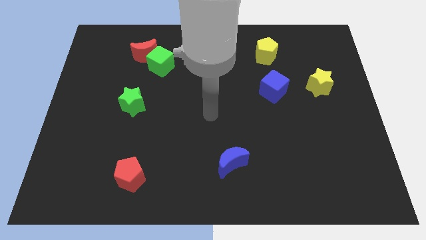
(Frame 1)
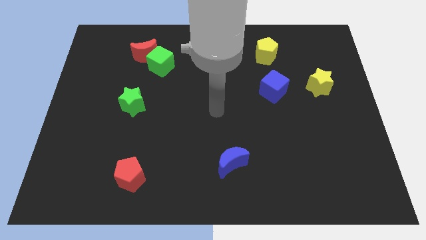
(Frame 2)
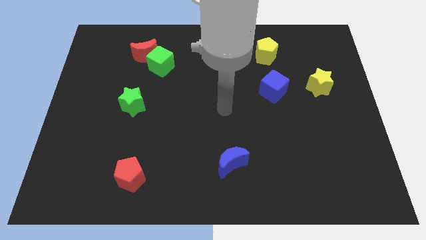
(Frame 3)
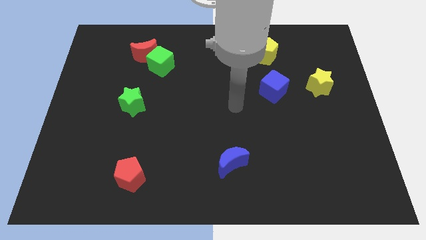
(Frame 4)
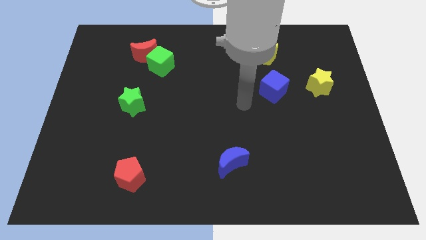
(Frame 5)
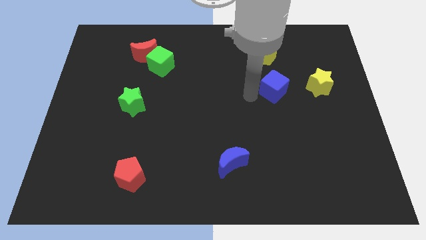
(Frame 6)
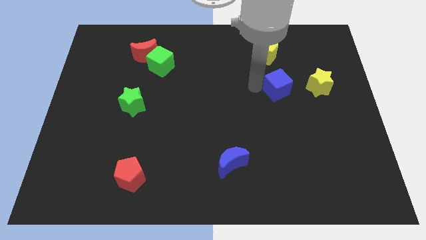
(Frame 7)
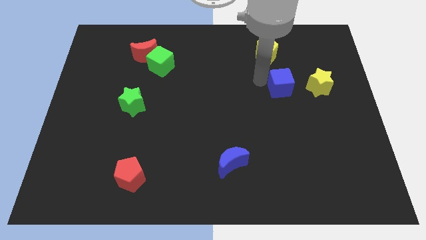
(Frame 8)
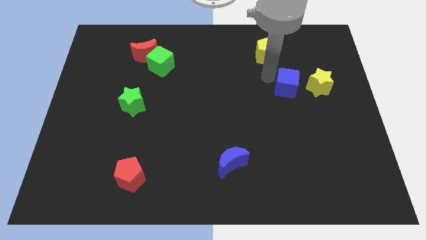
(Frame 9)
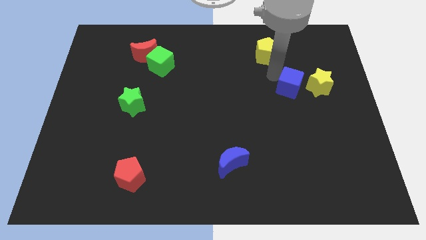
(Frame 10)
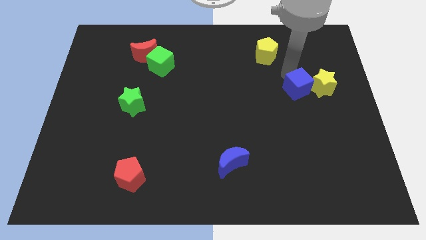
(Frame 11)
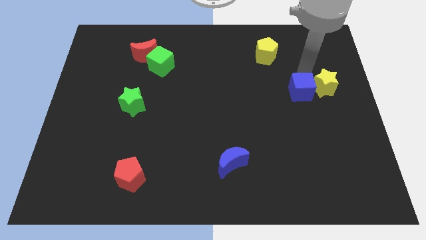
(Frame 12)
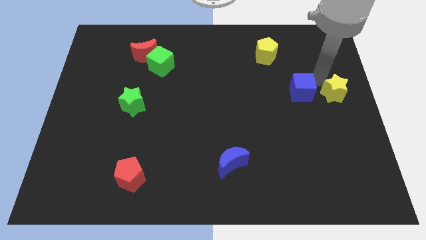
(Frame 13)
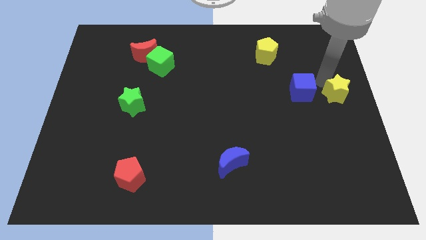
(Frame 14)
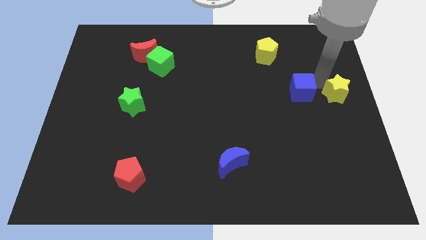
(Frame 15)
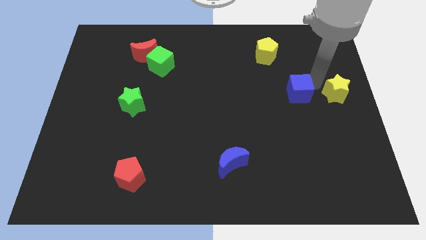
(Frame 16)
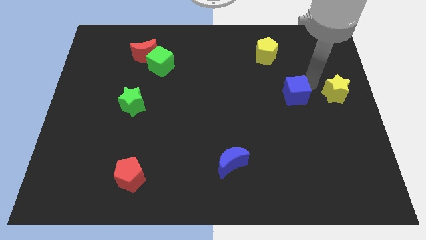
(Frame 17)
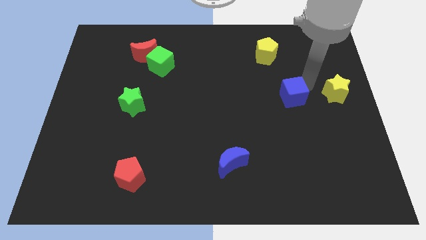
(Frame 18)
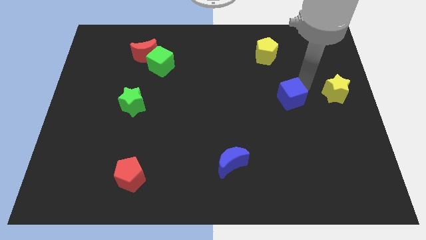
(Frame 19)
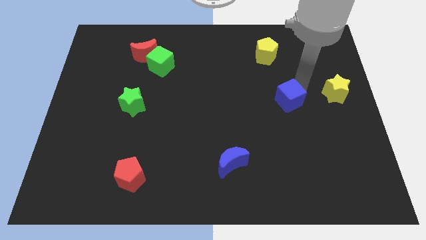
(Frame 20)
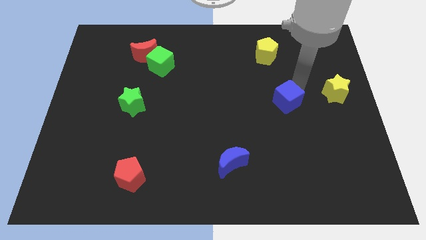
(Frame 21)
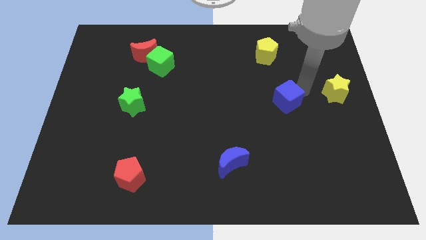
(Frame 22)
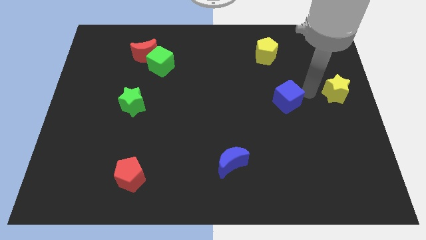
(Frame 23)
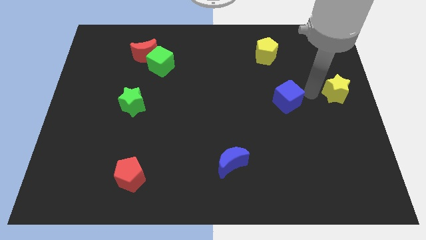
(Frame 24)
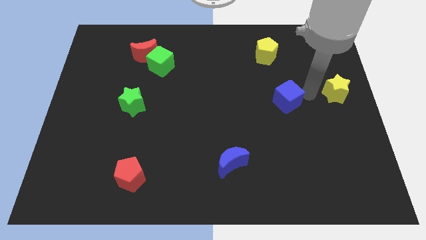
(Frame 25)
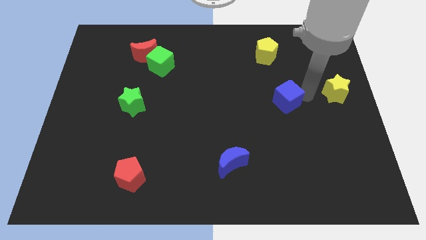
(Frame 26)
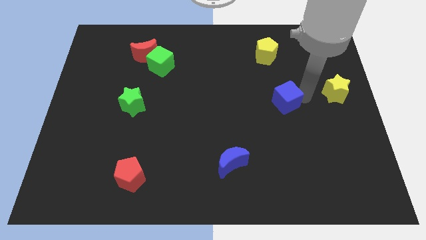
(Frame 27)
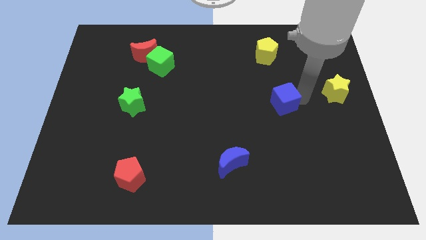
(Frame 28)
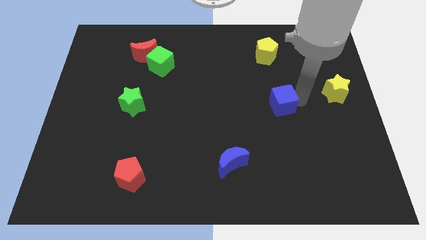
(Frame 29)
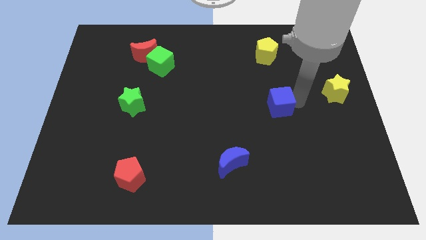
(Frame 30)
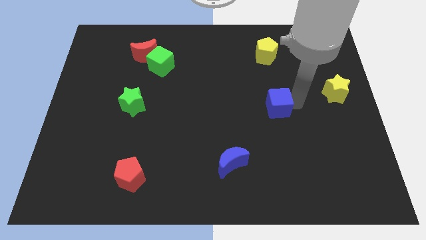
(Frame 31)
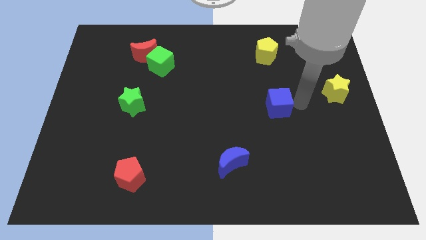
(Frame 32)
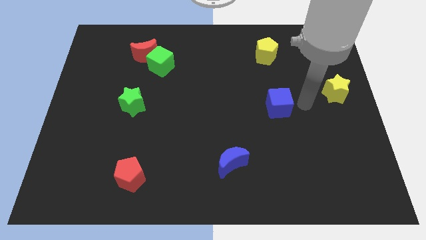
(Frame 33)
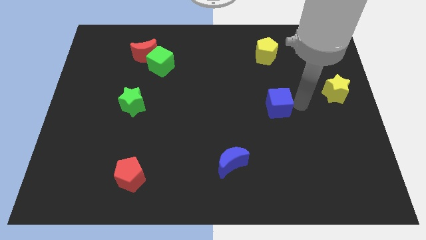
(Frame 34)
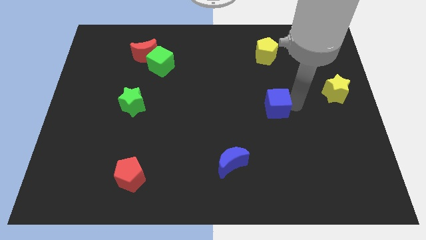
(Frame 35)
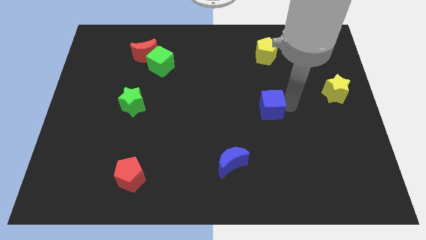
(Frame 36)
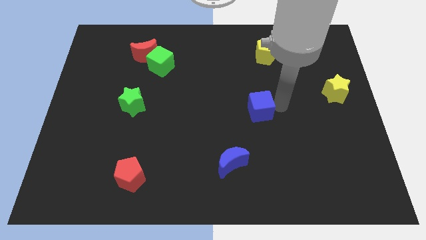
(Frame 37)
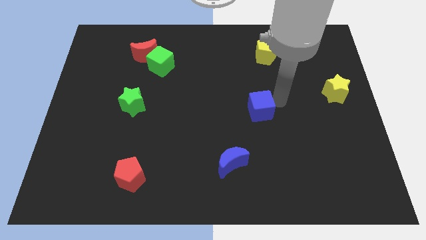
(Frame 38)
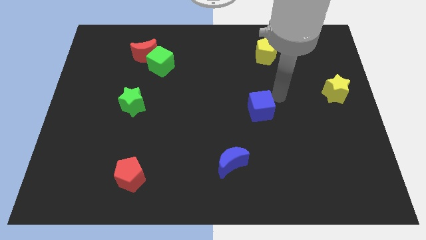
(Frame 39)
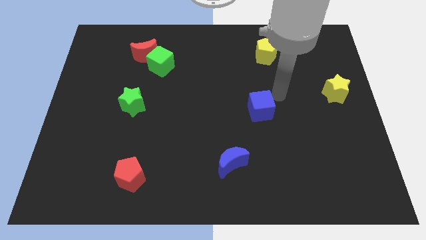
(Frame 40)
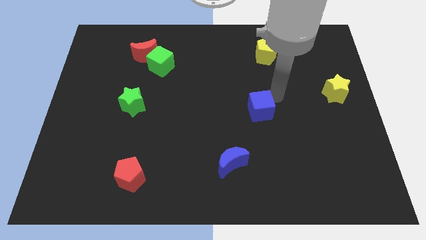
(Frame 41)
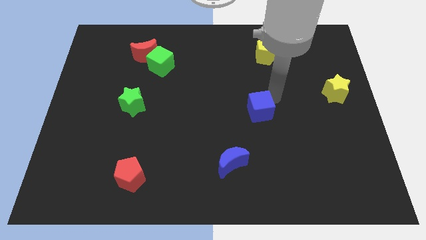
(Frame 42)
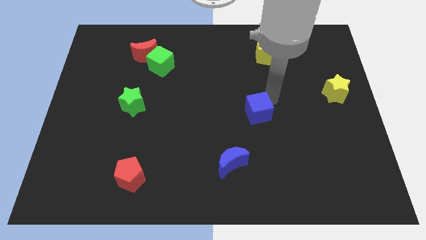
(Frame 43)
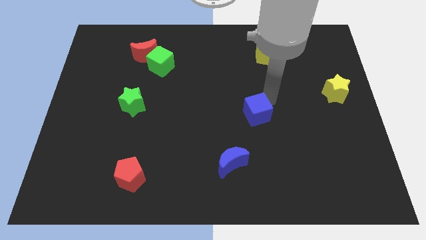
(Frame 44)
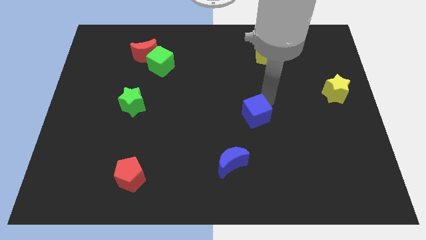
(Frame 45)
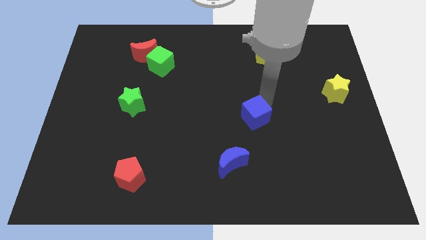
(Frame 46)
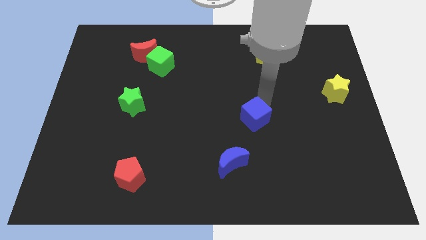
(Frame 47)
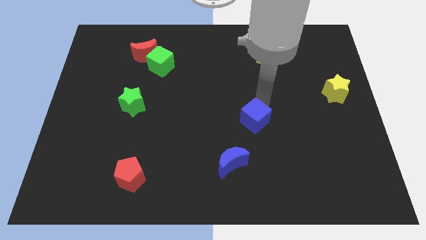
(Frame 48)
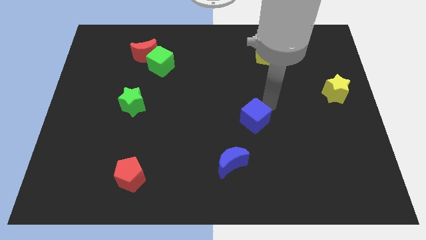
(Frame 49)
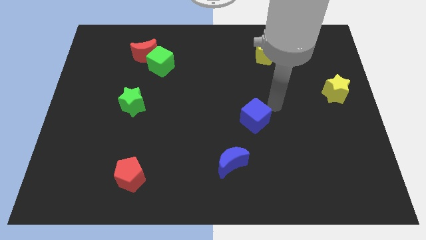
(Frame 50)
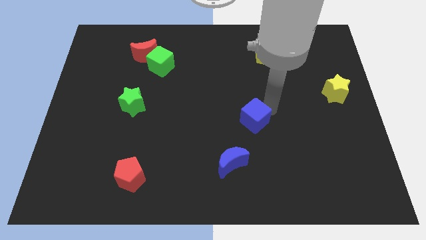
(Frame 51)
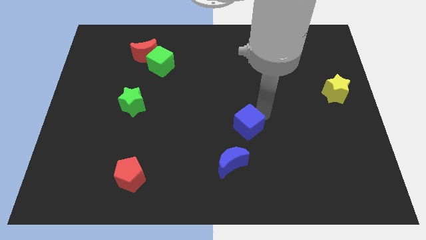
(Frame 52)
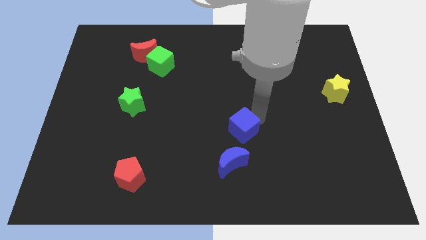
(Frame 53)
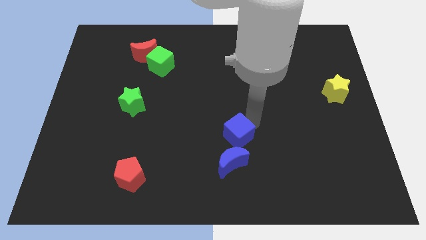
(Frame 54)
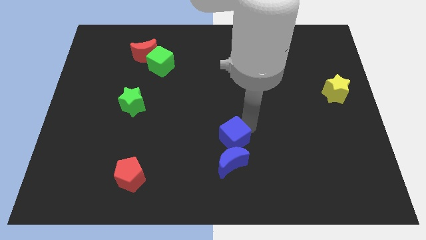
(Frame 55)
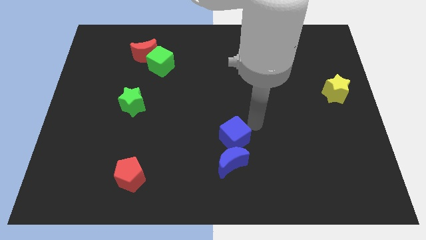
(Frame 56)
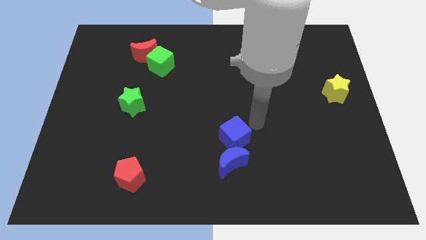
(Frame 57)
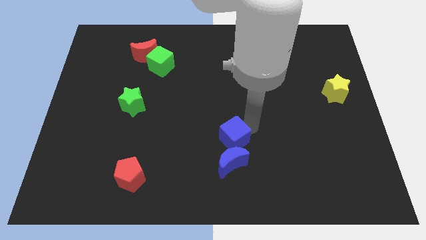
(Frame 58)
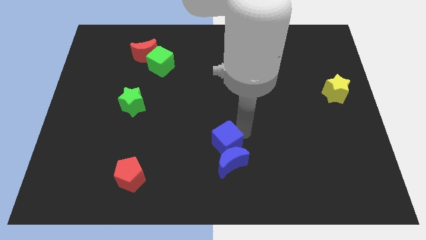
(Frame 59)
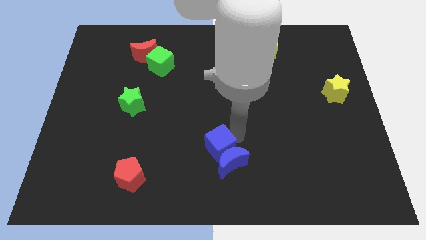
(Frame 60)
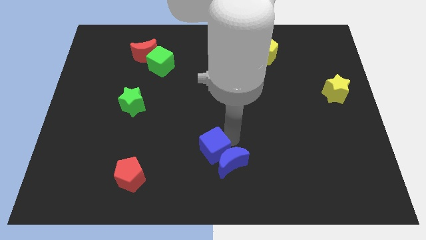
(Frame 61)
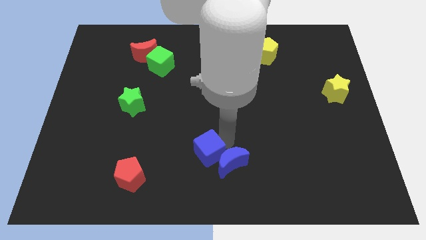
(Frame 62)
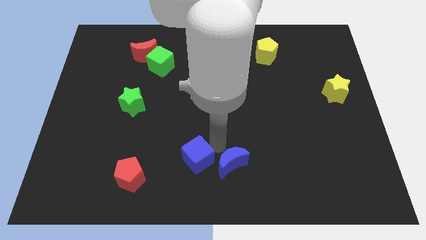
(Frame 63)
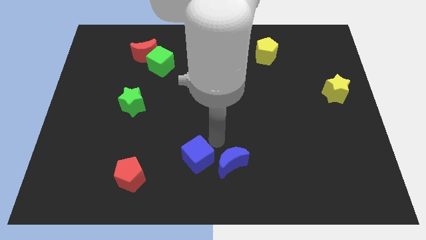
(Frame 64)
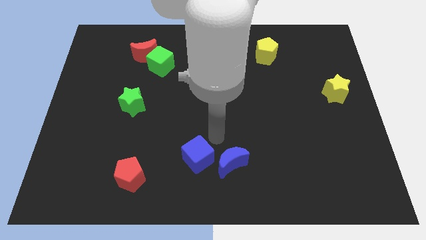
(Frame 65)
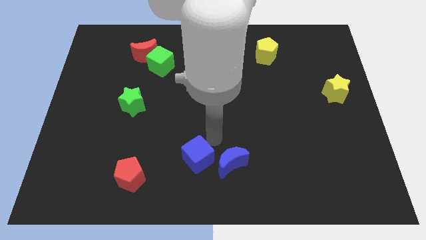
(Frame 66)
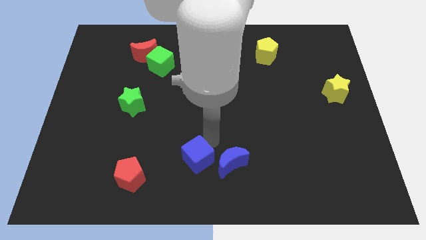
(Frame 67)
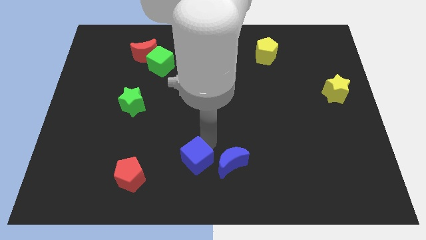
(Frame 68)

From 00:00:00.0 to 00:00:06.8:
put the blue cube just right of the red pentagon

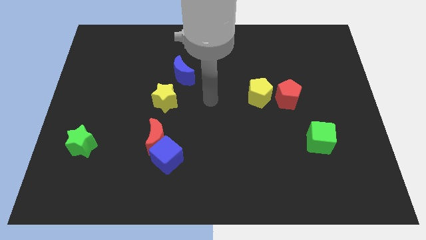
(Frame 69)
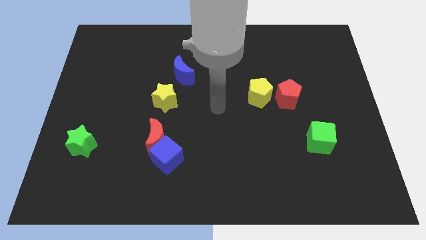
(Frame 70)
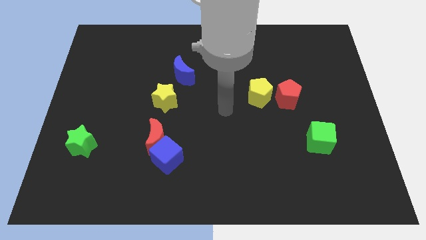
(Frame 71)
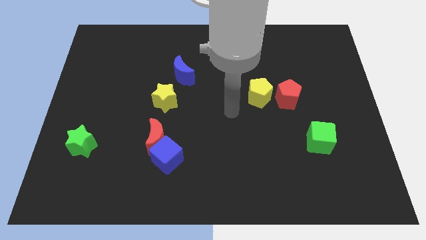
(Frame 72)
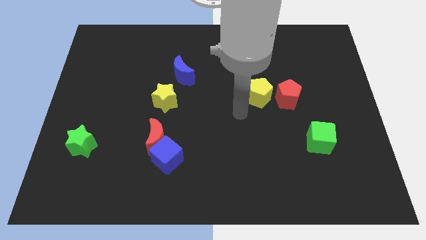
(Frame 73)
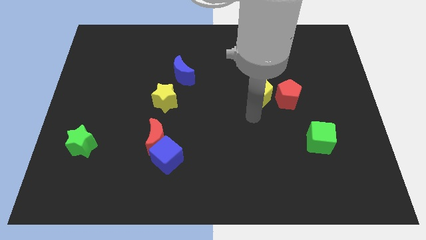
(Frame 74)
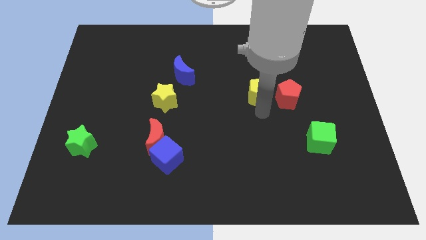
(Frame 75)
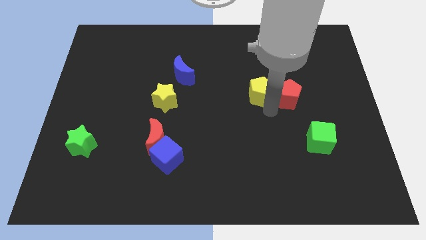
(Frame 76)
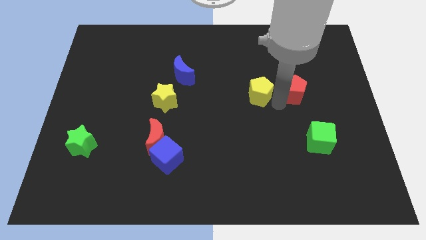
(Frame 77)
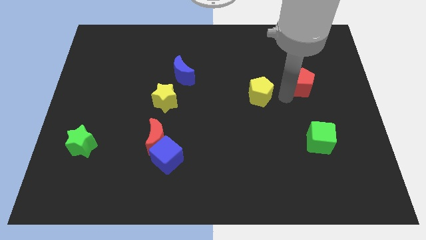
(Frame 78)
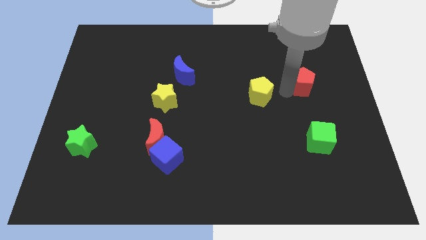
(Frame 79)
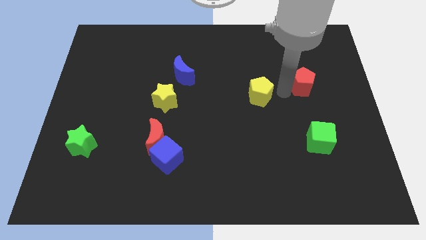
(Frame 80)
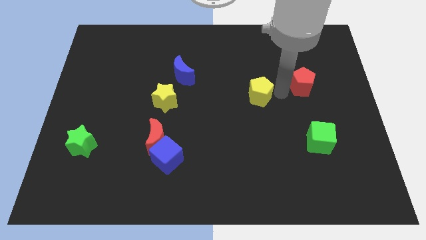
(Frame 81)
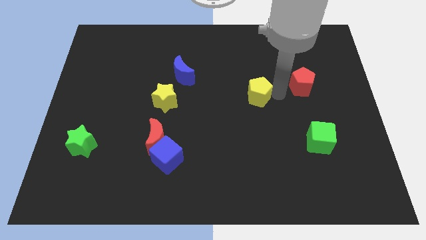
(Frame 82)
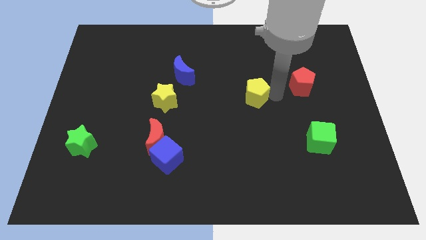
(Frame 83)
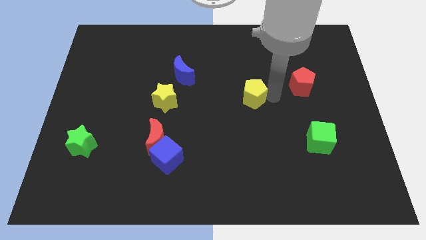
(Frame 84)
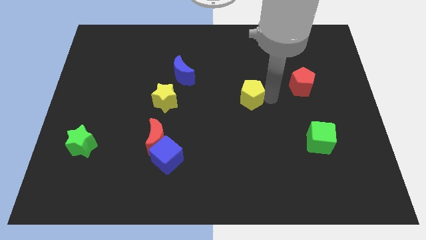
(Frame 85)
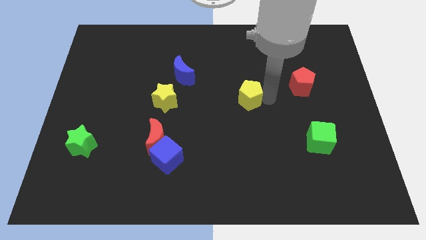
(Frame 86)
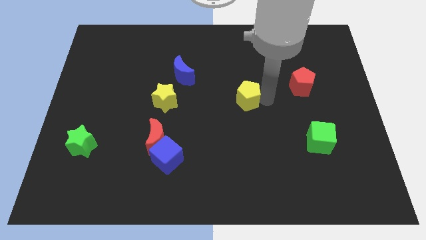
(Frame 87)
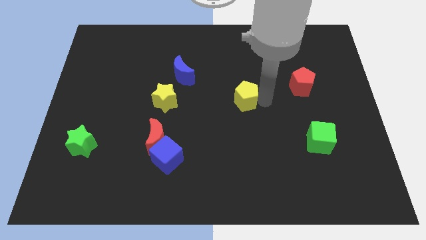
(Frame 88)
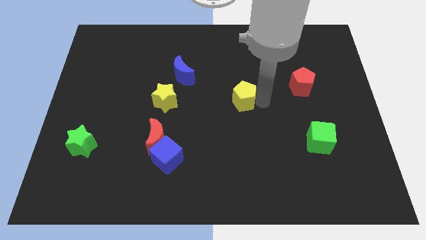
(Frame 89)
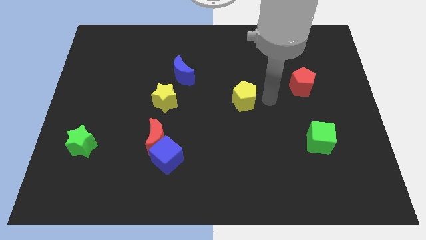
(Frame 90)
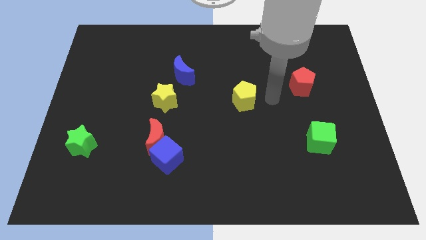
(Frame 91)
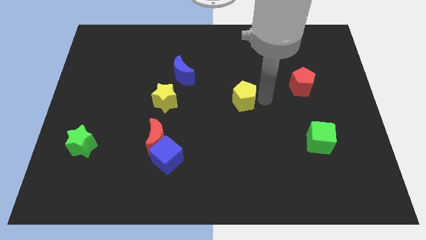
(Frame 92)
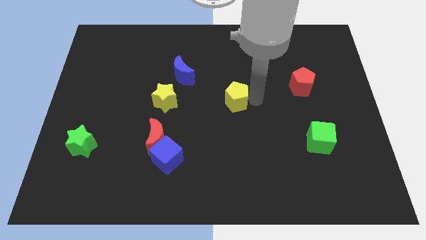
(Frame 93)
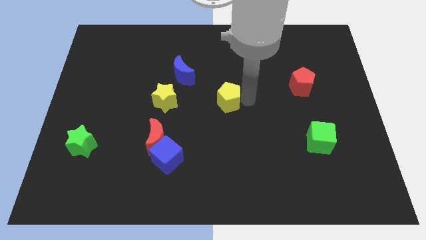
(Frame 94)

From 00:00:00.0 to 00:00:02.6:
move the yellow pentagon to the right of the yellow star
